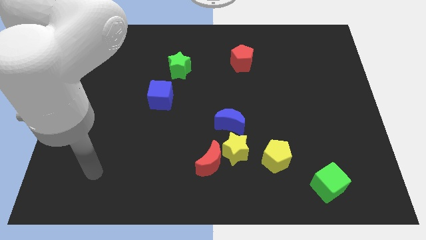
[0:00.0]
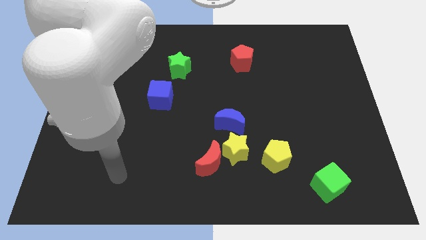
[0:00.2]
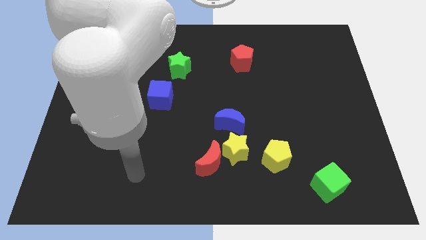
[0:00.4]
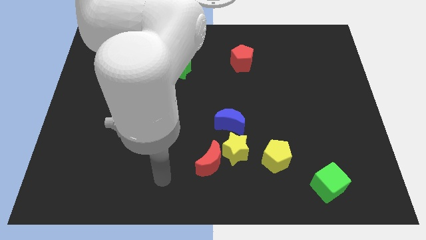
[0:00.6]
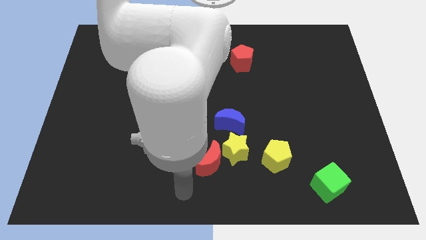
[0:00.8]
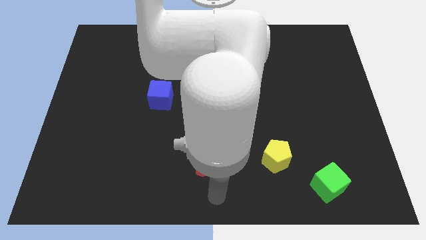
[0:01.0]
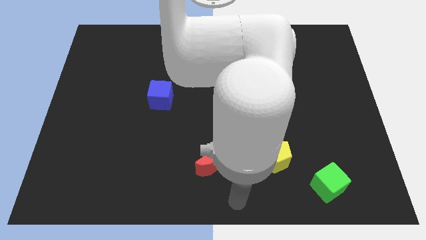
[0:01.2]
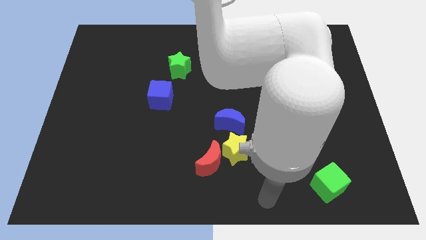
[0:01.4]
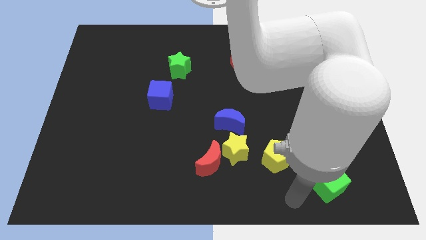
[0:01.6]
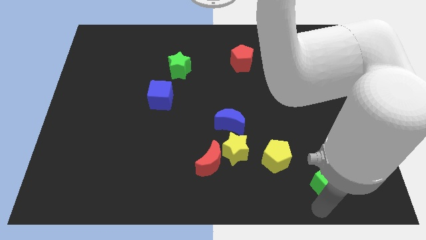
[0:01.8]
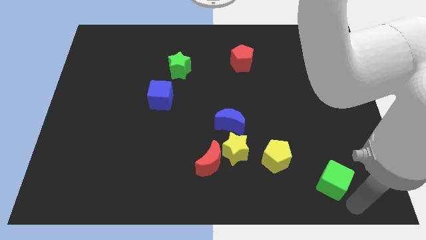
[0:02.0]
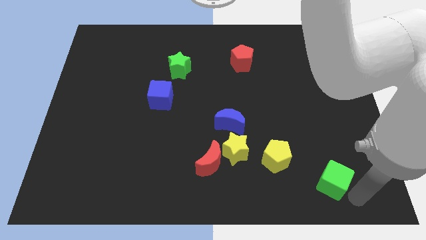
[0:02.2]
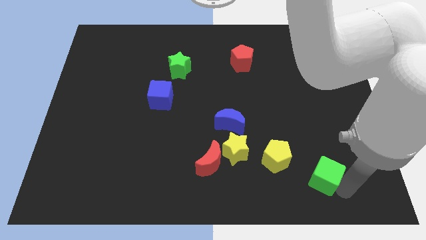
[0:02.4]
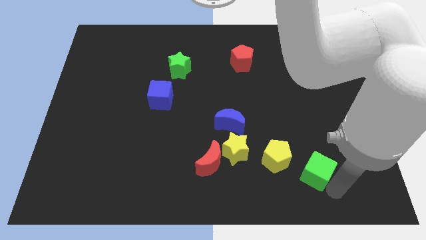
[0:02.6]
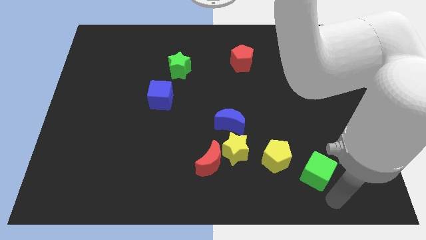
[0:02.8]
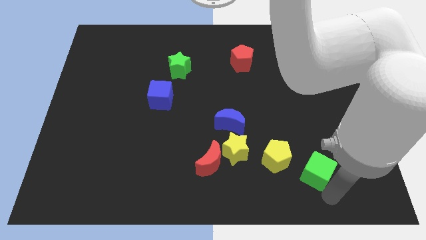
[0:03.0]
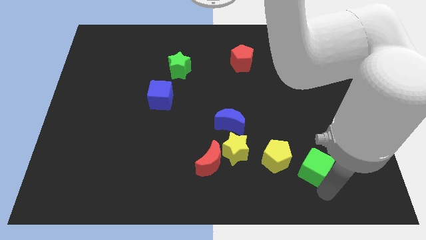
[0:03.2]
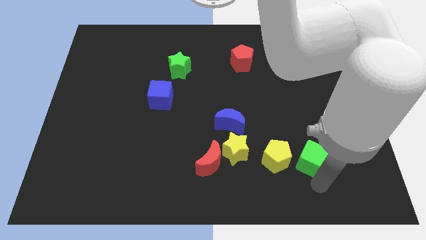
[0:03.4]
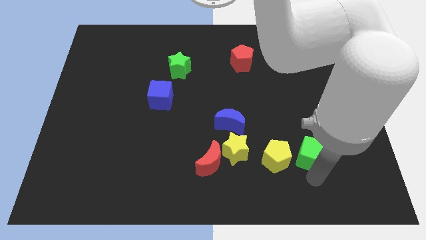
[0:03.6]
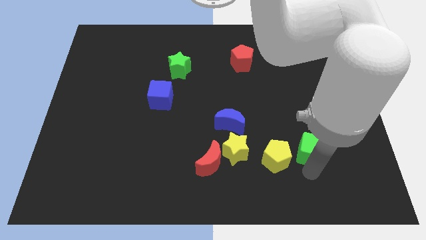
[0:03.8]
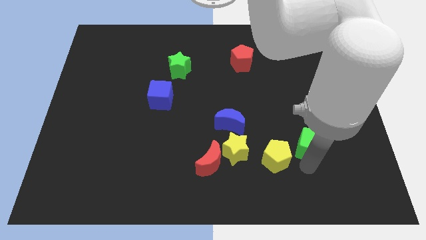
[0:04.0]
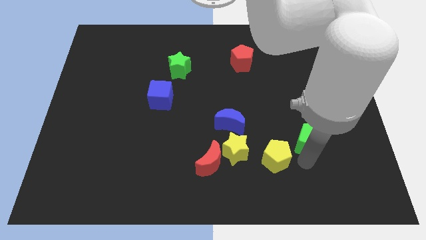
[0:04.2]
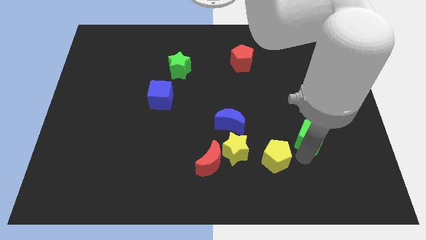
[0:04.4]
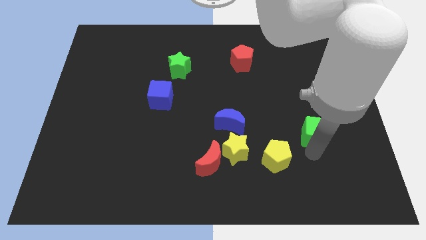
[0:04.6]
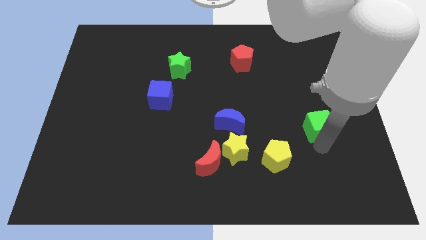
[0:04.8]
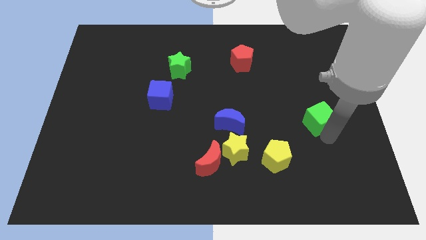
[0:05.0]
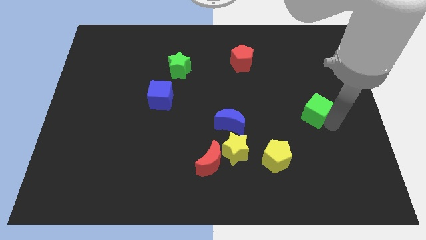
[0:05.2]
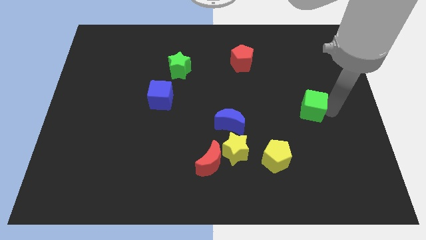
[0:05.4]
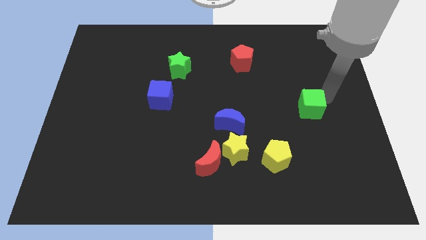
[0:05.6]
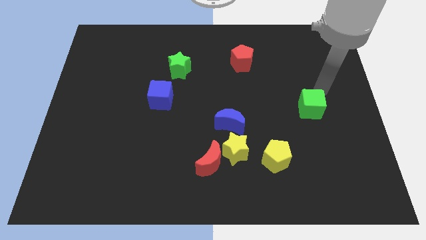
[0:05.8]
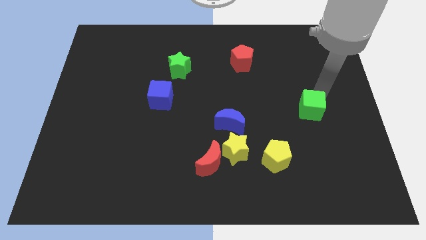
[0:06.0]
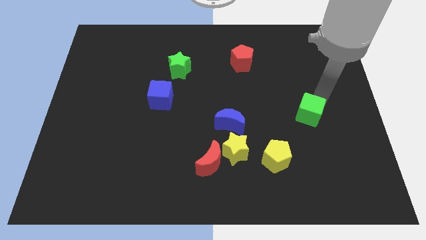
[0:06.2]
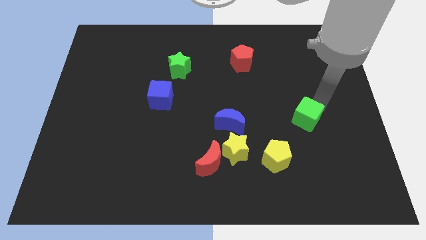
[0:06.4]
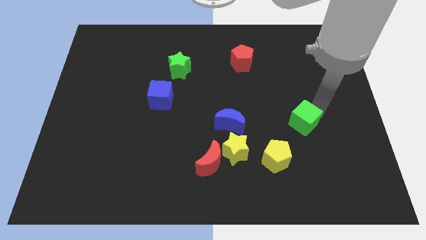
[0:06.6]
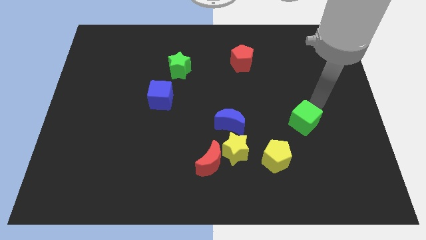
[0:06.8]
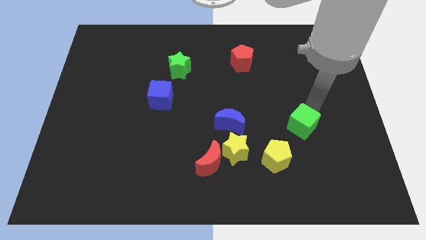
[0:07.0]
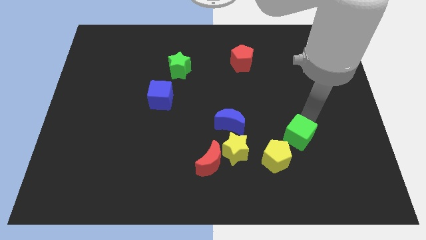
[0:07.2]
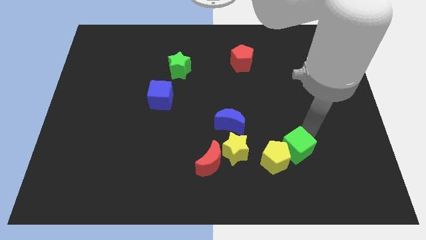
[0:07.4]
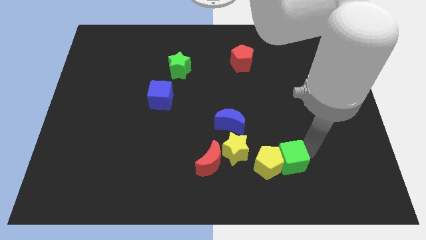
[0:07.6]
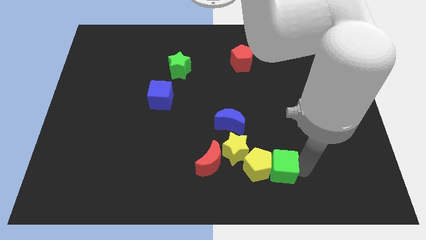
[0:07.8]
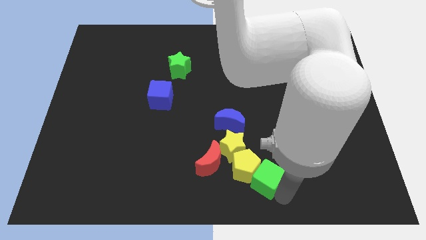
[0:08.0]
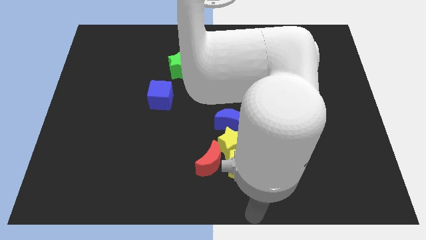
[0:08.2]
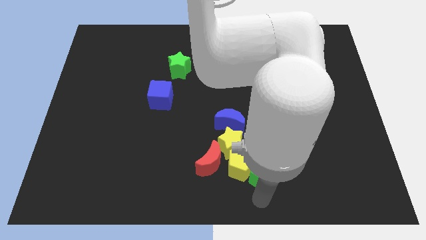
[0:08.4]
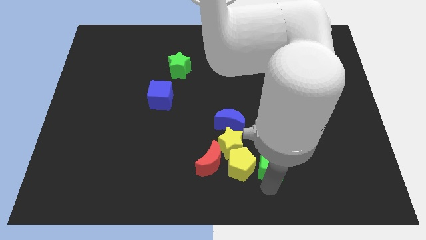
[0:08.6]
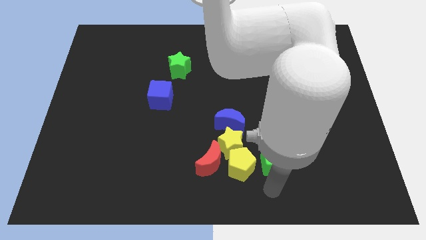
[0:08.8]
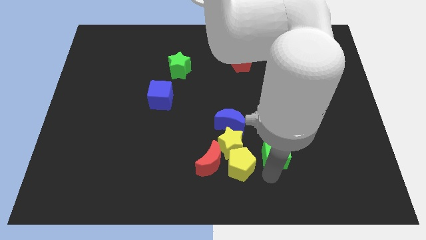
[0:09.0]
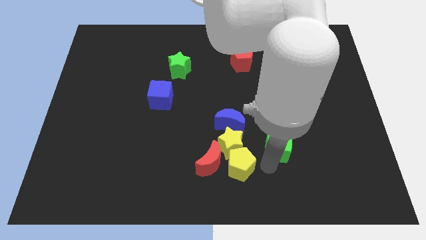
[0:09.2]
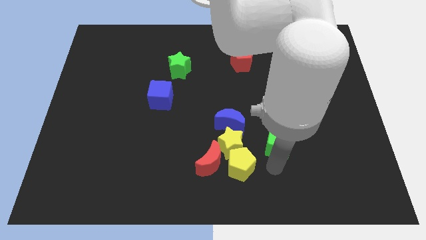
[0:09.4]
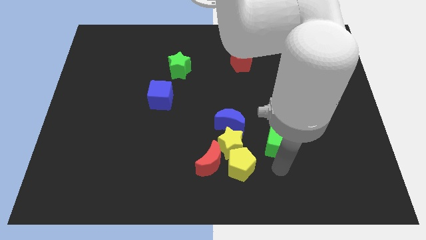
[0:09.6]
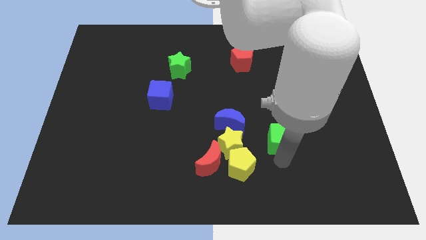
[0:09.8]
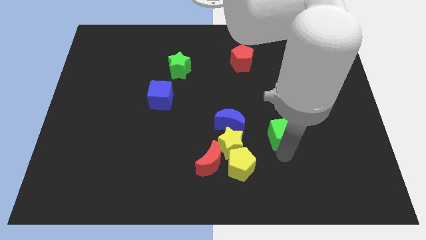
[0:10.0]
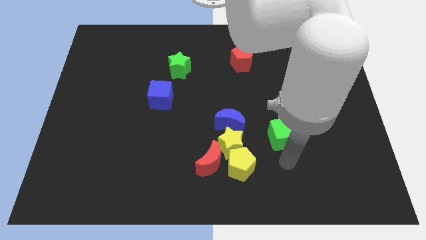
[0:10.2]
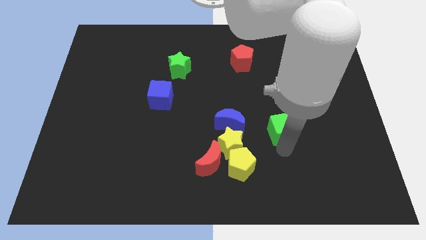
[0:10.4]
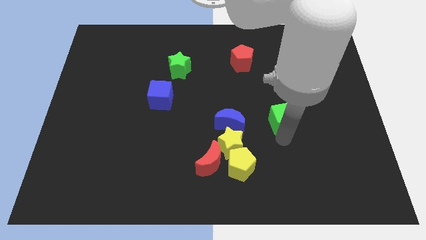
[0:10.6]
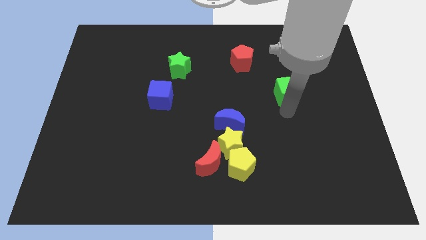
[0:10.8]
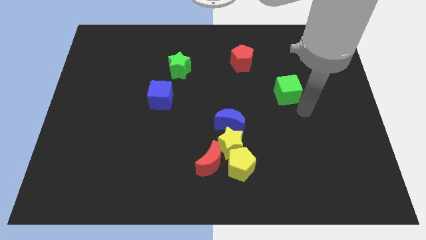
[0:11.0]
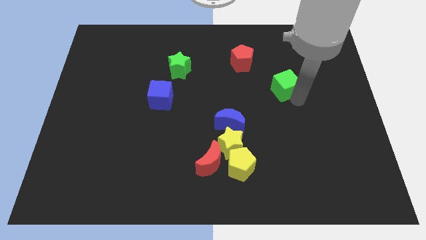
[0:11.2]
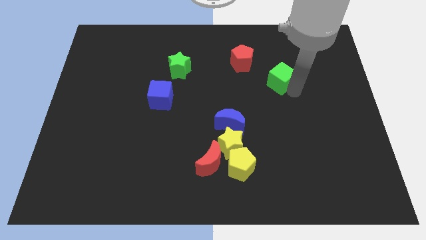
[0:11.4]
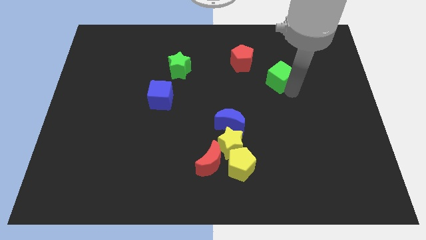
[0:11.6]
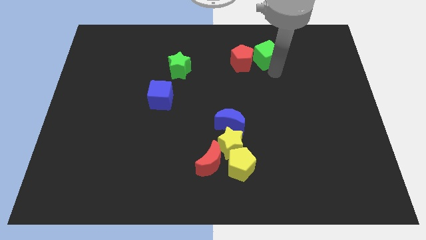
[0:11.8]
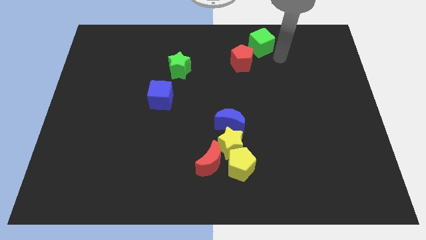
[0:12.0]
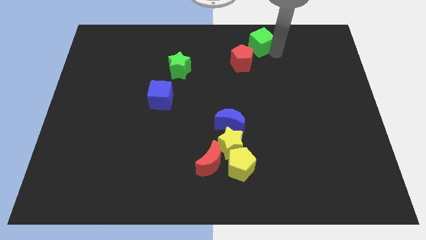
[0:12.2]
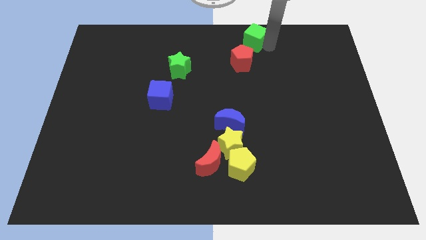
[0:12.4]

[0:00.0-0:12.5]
slide the green cube to the top

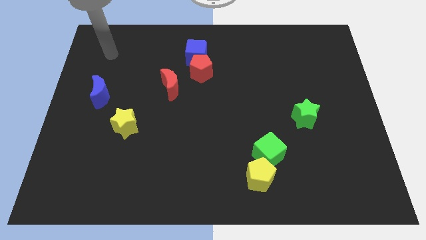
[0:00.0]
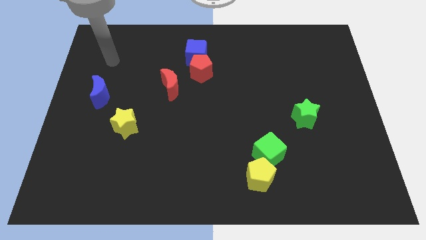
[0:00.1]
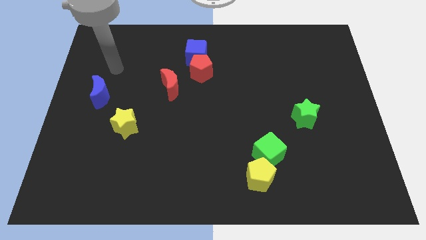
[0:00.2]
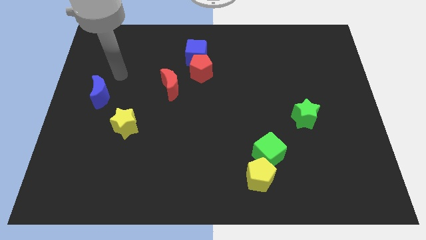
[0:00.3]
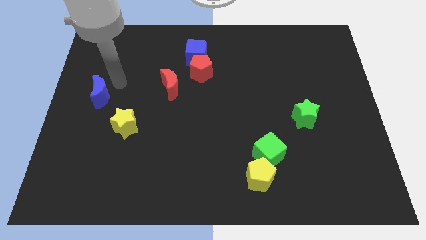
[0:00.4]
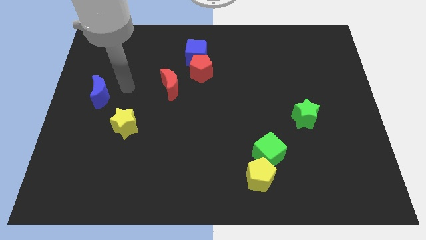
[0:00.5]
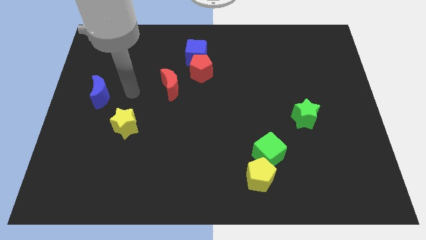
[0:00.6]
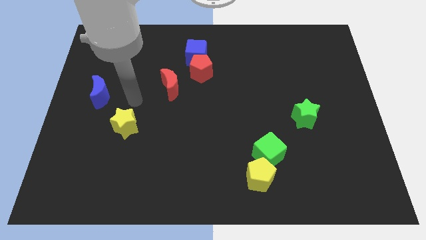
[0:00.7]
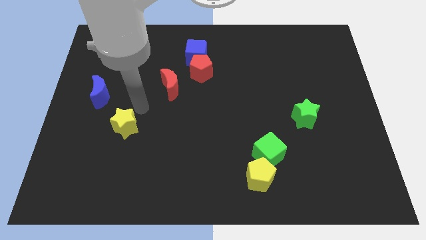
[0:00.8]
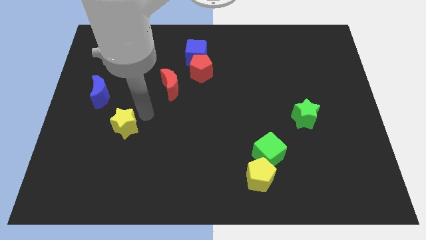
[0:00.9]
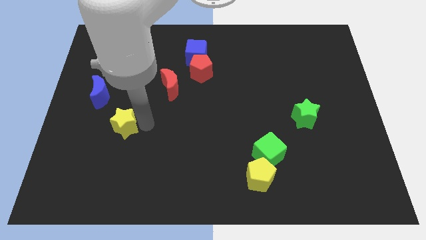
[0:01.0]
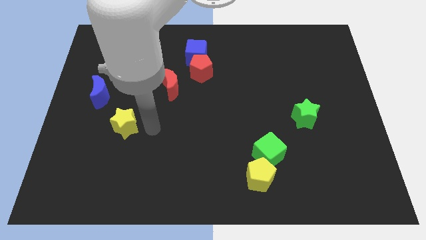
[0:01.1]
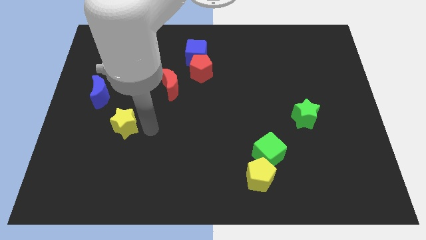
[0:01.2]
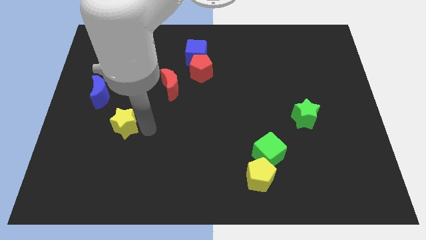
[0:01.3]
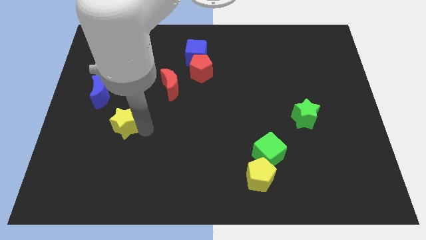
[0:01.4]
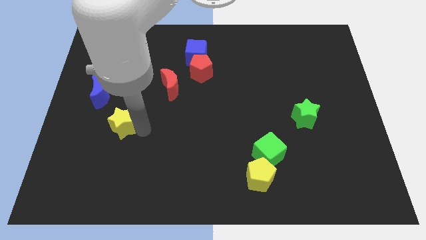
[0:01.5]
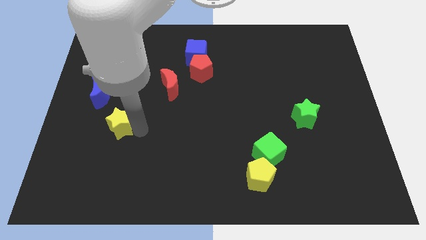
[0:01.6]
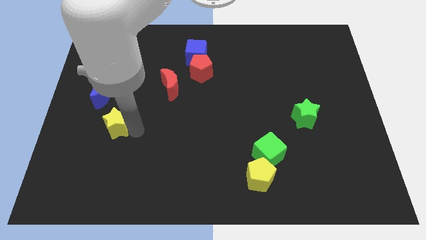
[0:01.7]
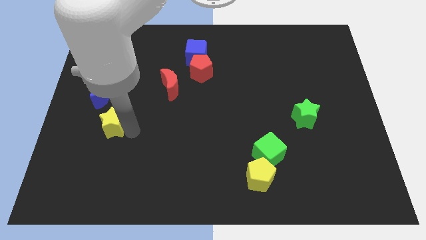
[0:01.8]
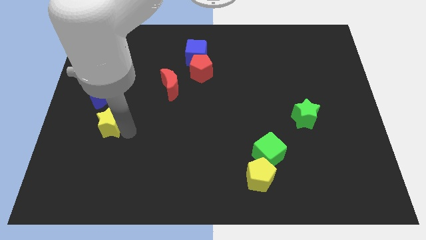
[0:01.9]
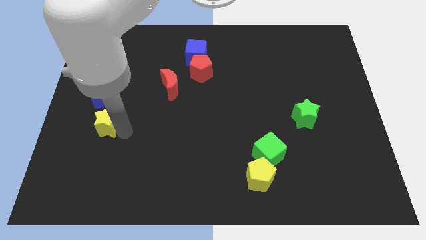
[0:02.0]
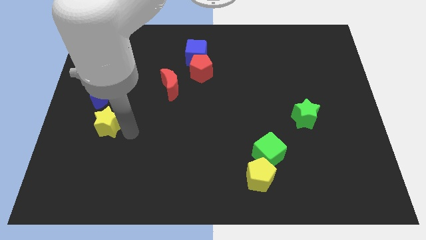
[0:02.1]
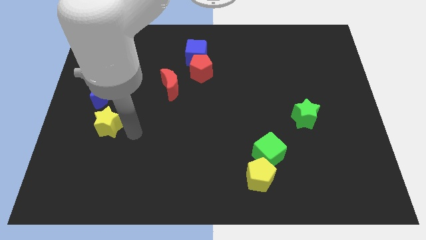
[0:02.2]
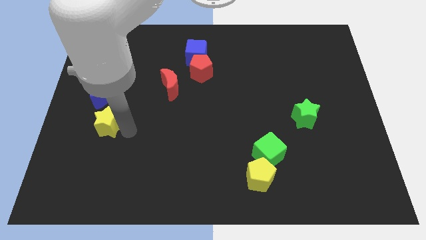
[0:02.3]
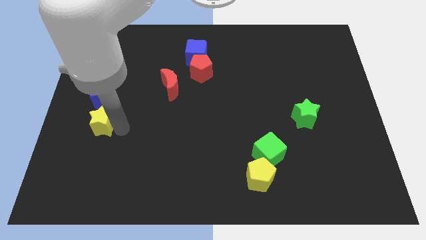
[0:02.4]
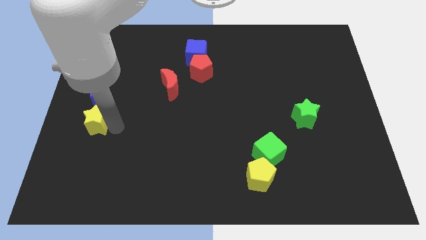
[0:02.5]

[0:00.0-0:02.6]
slide the yellow star to the left side of the board
